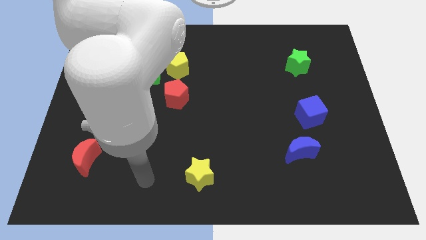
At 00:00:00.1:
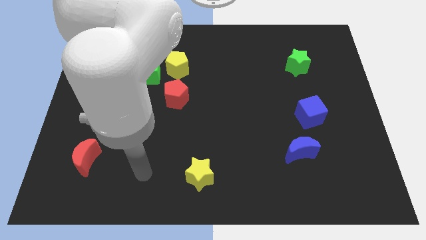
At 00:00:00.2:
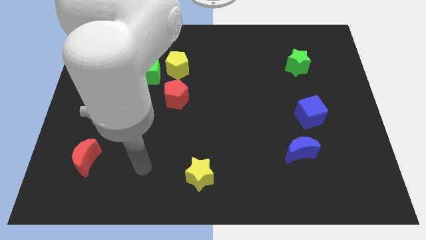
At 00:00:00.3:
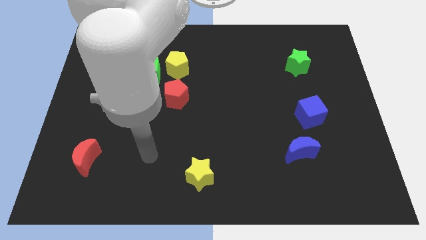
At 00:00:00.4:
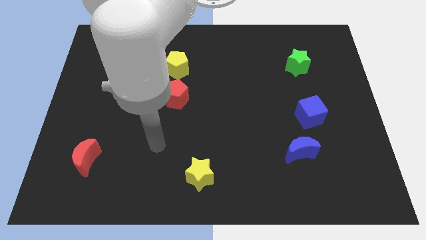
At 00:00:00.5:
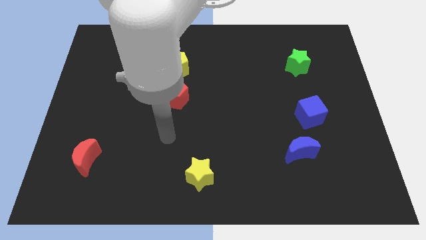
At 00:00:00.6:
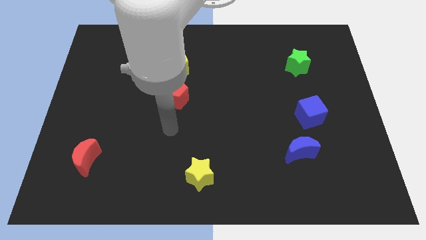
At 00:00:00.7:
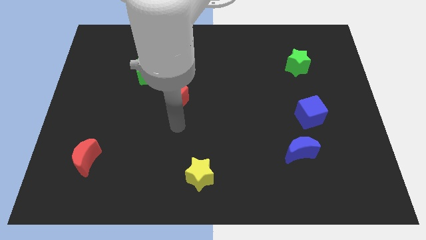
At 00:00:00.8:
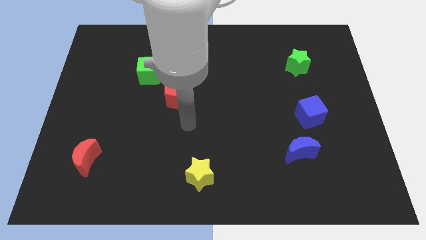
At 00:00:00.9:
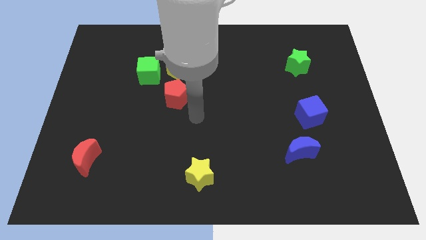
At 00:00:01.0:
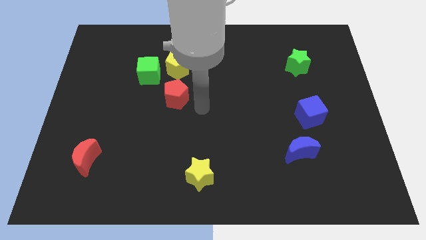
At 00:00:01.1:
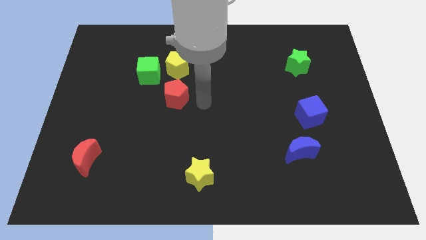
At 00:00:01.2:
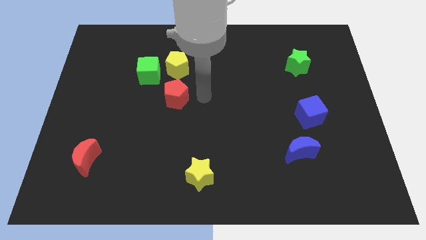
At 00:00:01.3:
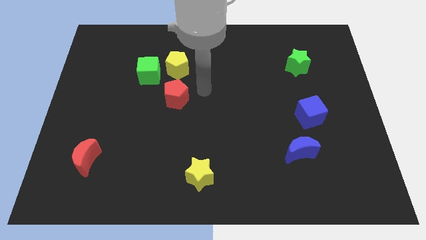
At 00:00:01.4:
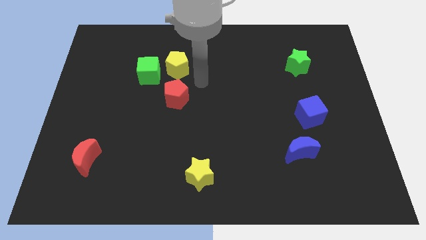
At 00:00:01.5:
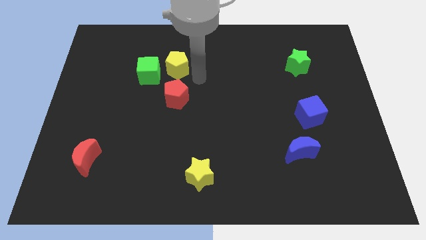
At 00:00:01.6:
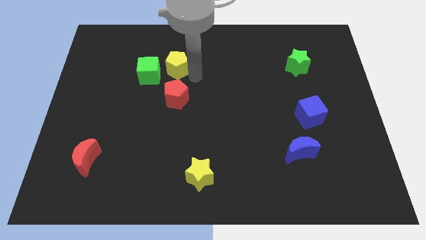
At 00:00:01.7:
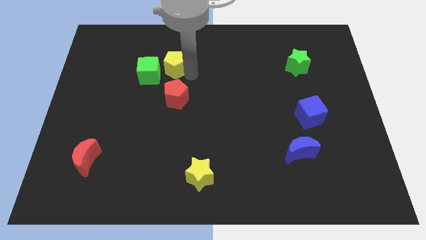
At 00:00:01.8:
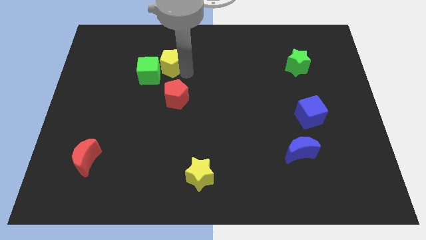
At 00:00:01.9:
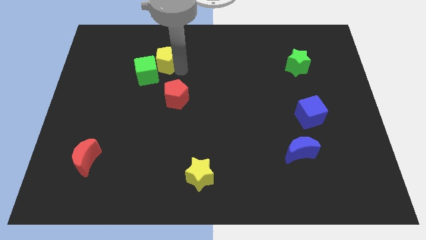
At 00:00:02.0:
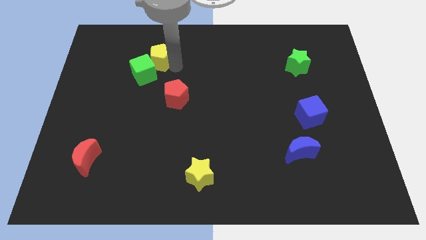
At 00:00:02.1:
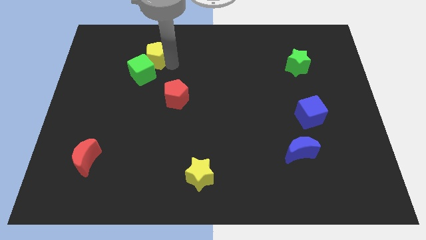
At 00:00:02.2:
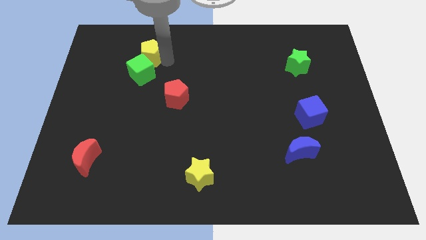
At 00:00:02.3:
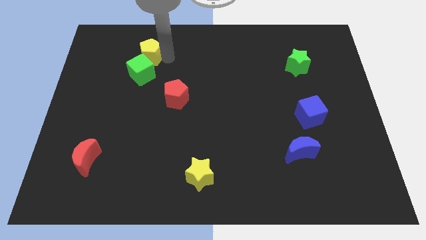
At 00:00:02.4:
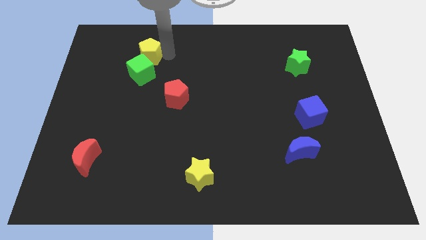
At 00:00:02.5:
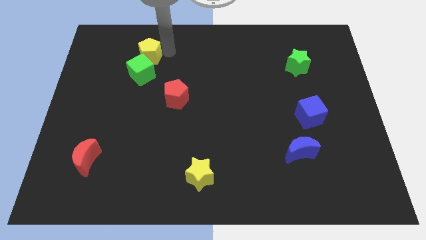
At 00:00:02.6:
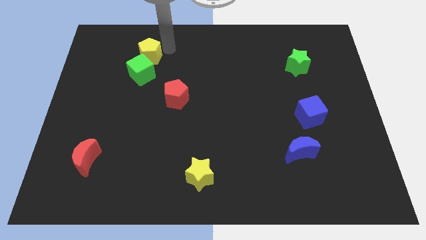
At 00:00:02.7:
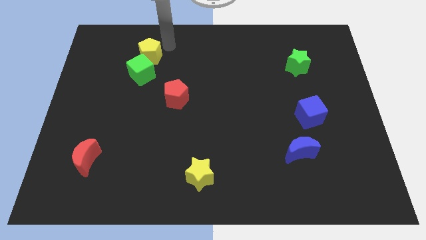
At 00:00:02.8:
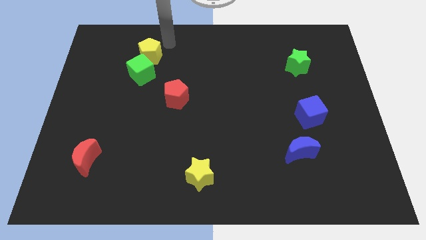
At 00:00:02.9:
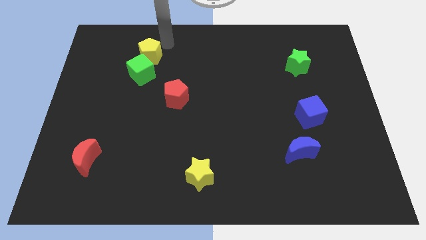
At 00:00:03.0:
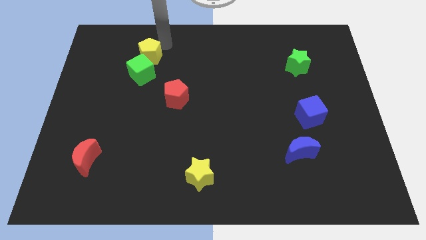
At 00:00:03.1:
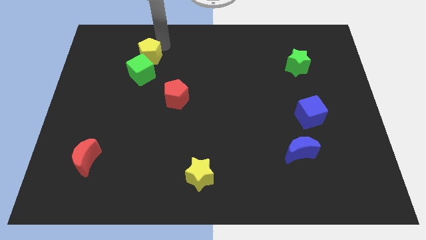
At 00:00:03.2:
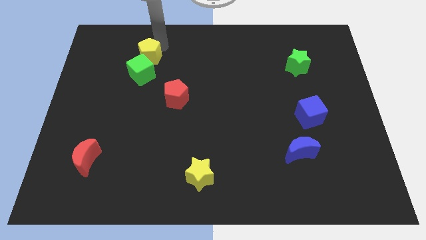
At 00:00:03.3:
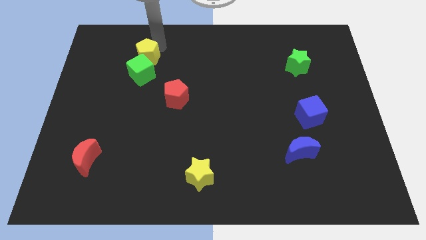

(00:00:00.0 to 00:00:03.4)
push the yellow pentagon a little bit left

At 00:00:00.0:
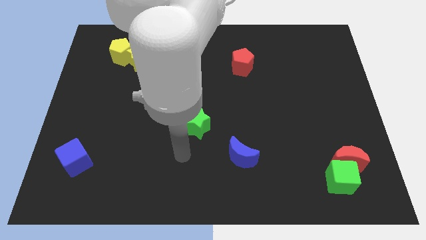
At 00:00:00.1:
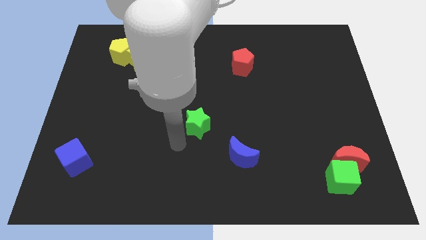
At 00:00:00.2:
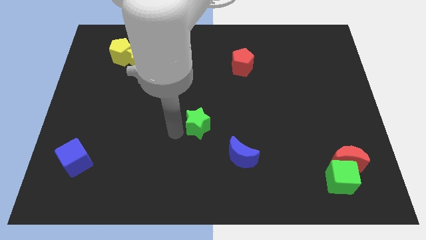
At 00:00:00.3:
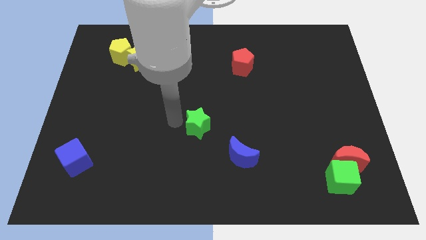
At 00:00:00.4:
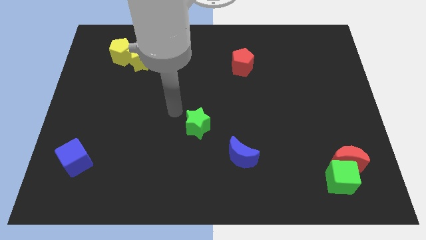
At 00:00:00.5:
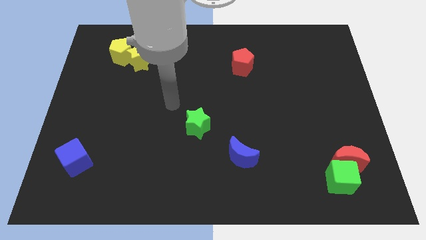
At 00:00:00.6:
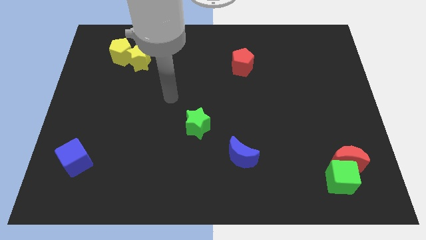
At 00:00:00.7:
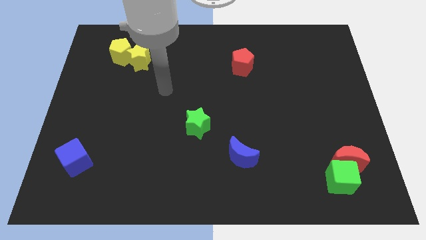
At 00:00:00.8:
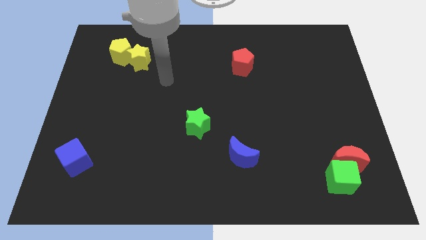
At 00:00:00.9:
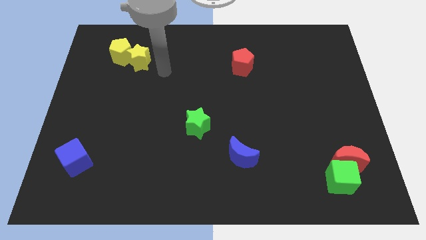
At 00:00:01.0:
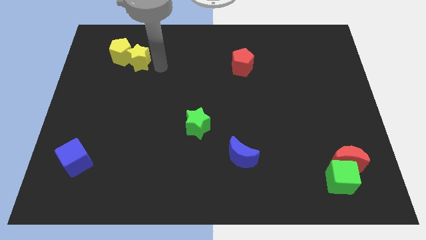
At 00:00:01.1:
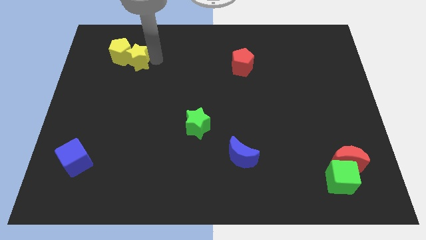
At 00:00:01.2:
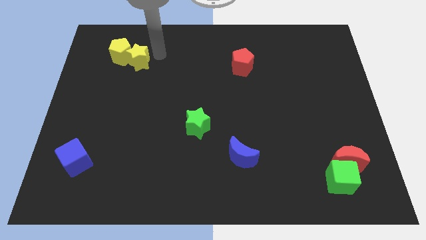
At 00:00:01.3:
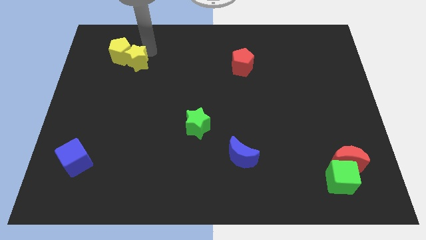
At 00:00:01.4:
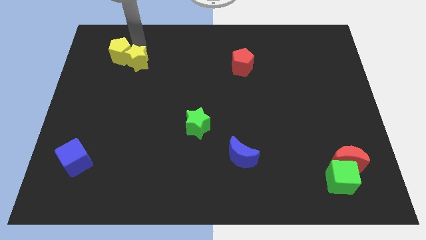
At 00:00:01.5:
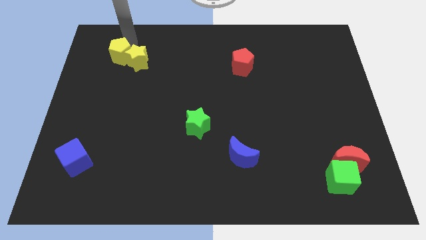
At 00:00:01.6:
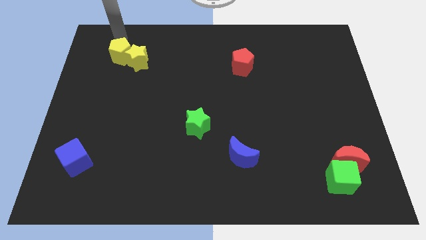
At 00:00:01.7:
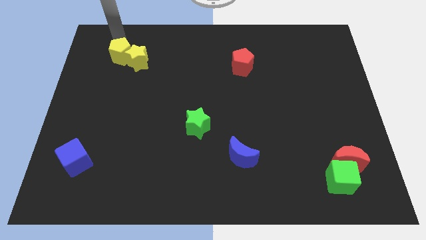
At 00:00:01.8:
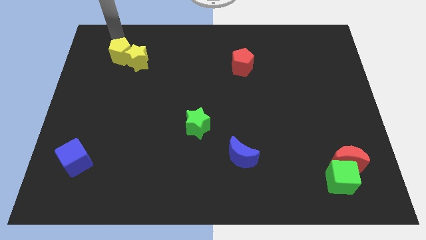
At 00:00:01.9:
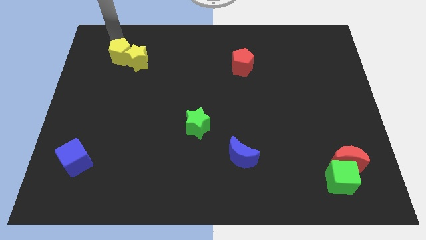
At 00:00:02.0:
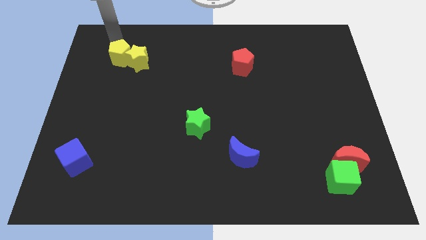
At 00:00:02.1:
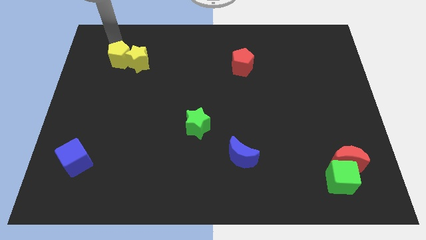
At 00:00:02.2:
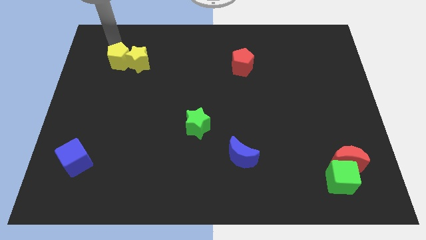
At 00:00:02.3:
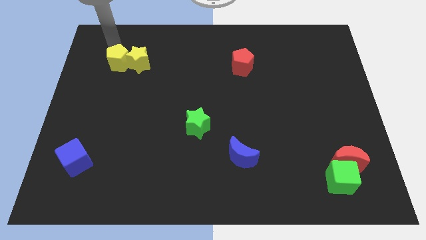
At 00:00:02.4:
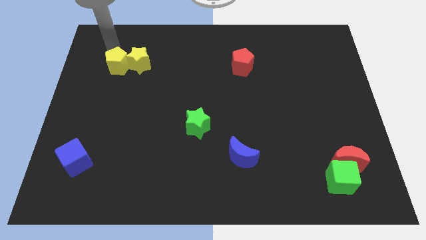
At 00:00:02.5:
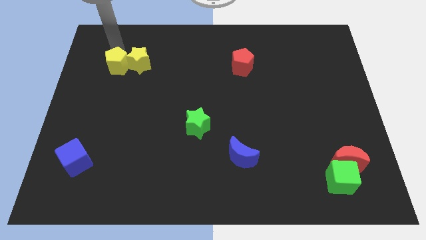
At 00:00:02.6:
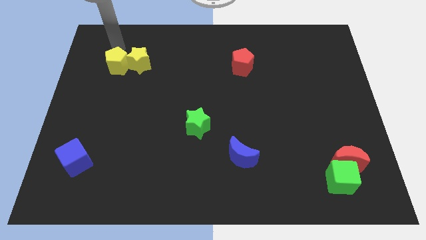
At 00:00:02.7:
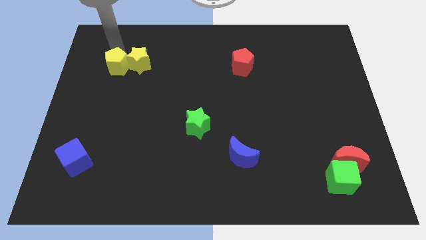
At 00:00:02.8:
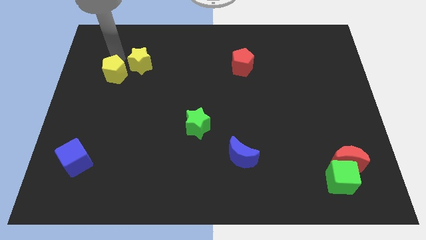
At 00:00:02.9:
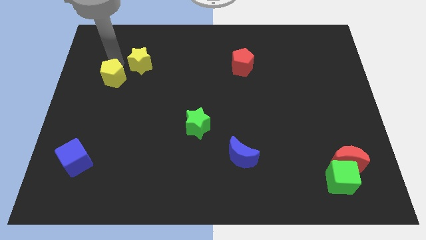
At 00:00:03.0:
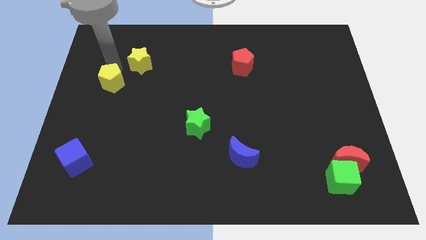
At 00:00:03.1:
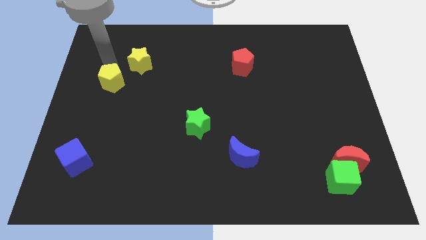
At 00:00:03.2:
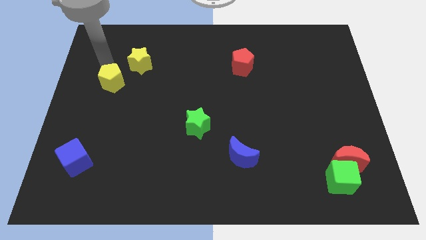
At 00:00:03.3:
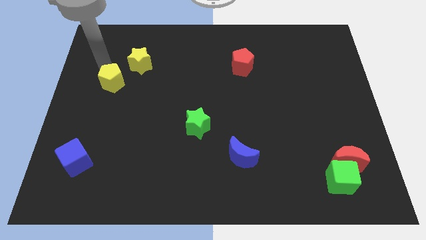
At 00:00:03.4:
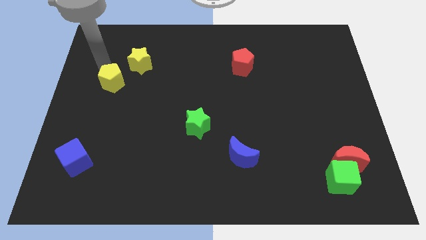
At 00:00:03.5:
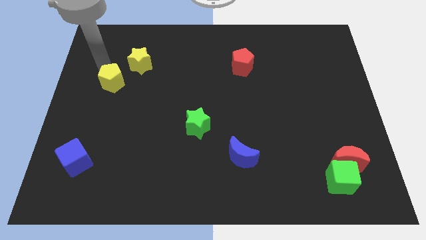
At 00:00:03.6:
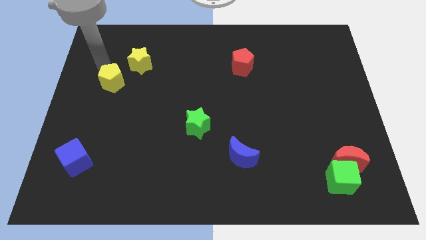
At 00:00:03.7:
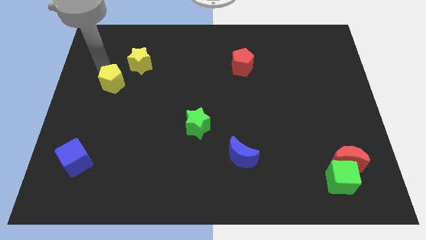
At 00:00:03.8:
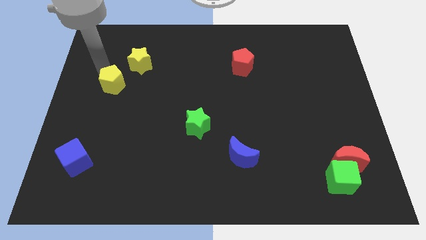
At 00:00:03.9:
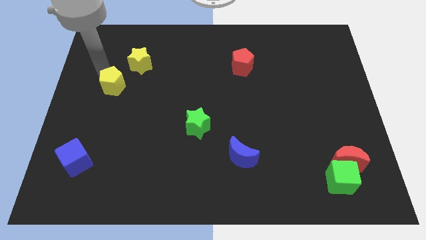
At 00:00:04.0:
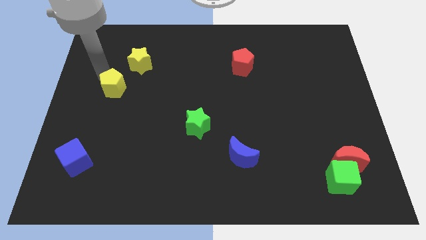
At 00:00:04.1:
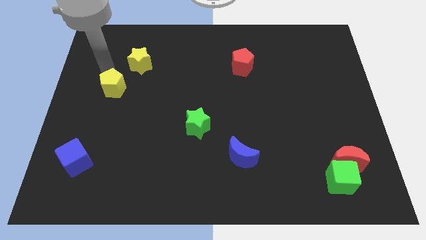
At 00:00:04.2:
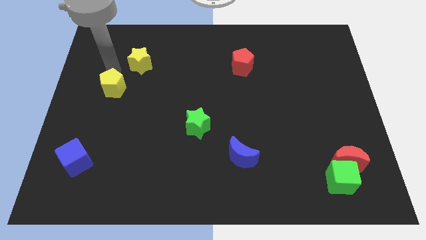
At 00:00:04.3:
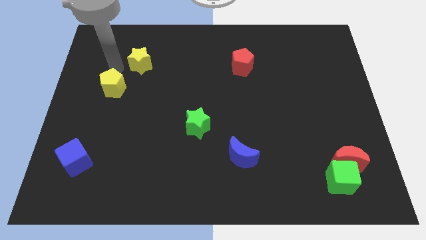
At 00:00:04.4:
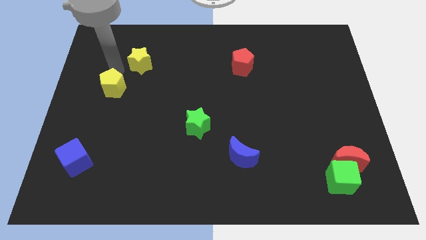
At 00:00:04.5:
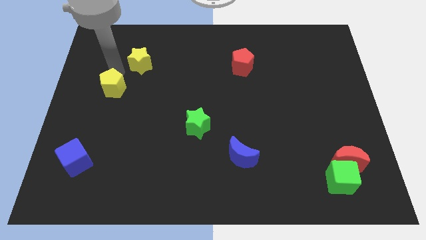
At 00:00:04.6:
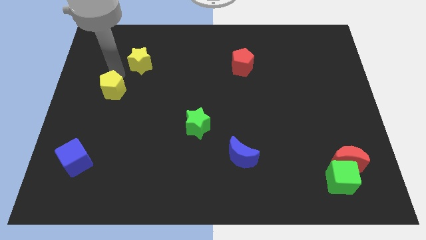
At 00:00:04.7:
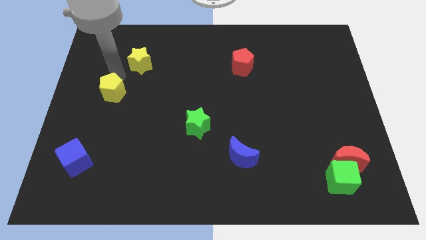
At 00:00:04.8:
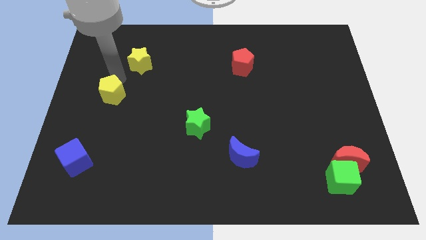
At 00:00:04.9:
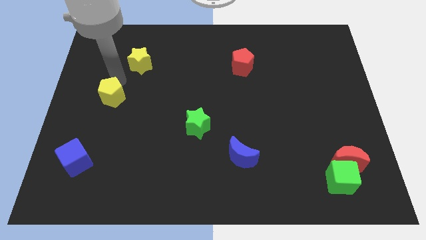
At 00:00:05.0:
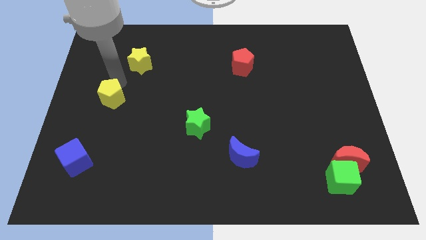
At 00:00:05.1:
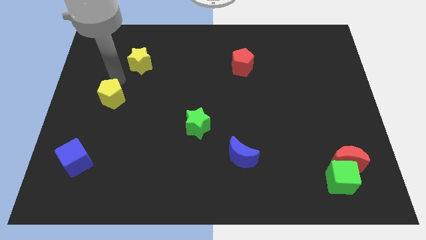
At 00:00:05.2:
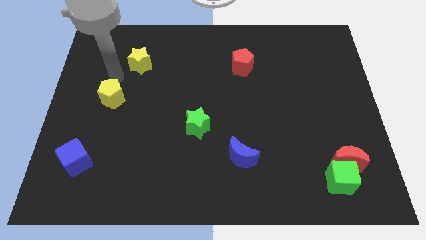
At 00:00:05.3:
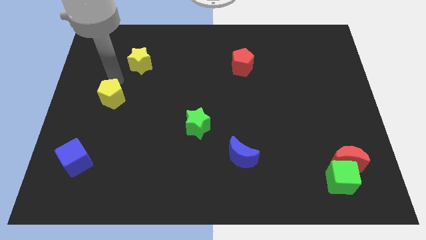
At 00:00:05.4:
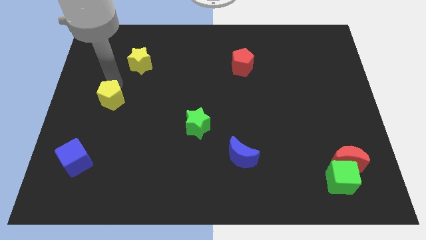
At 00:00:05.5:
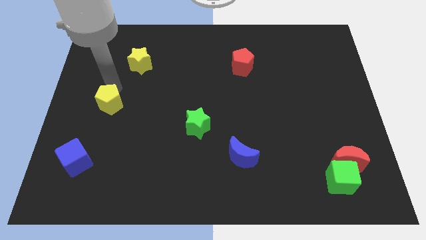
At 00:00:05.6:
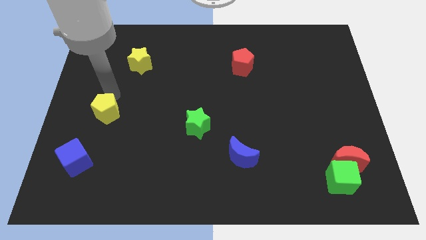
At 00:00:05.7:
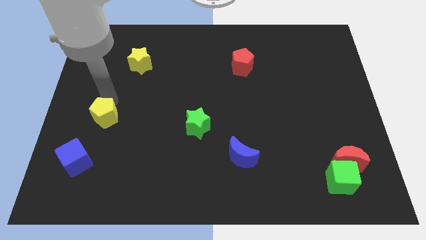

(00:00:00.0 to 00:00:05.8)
push the yellow pentagon downwards
